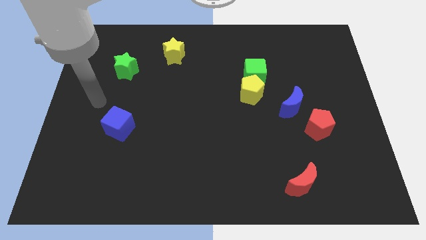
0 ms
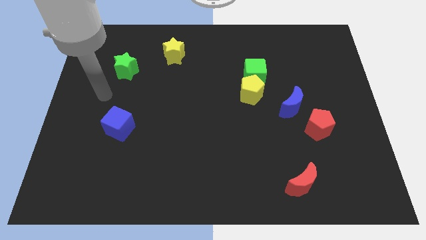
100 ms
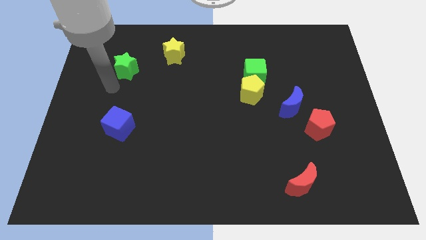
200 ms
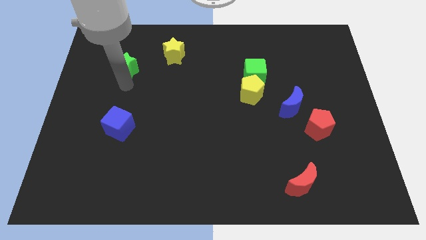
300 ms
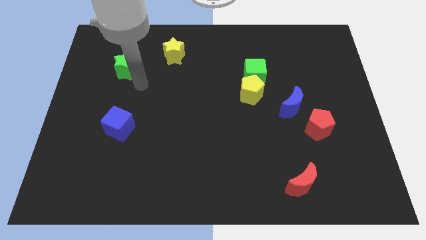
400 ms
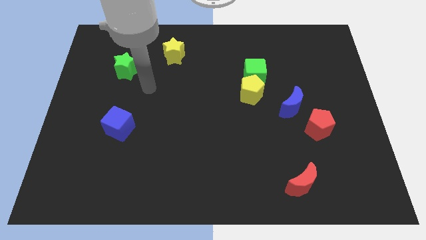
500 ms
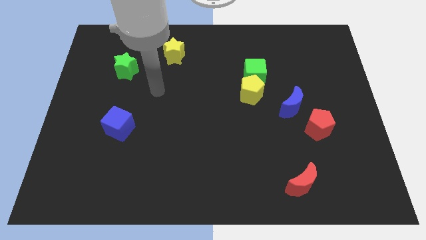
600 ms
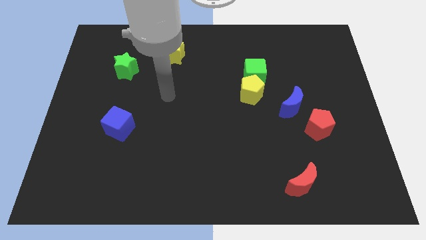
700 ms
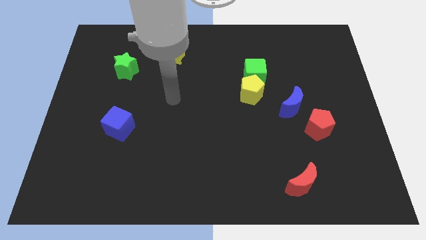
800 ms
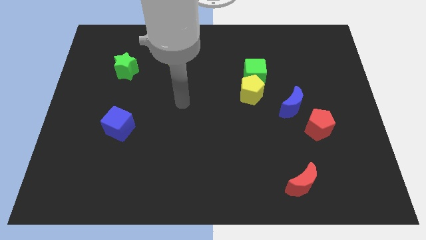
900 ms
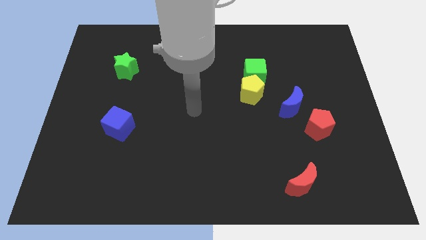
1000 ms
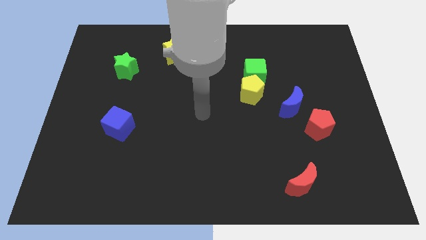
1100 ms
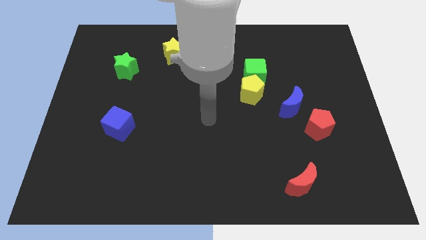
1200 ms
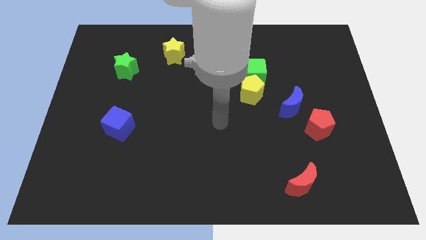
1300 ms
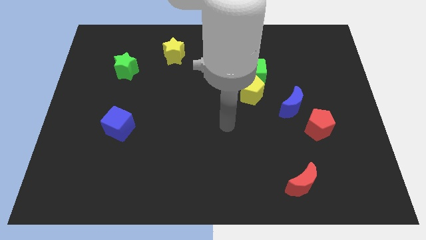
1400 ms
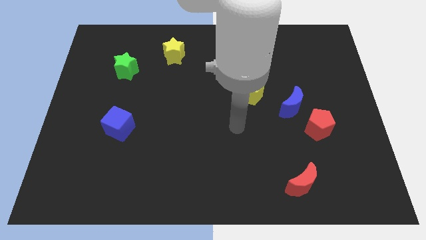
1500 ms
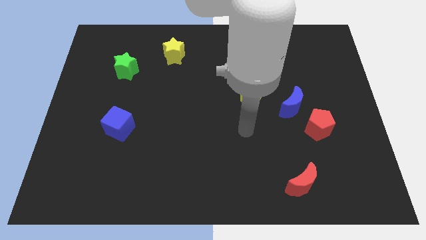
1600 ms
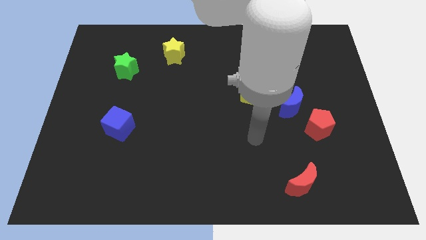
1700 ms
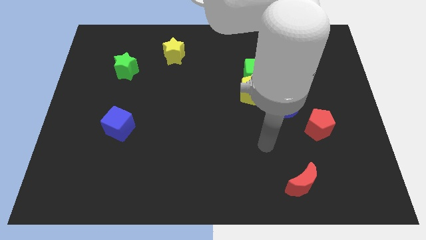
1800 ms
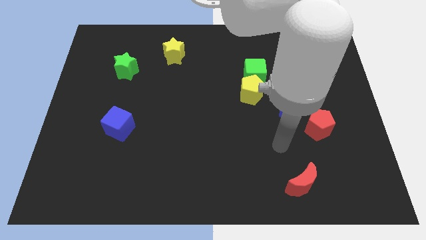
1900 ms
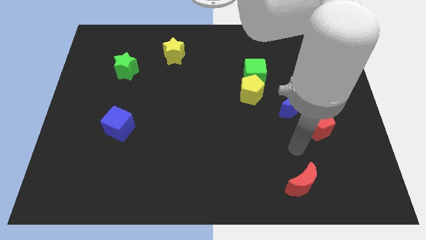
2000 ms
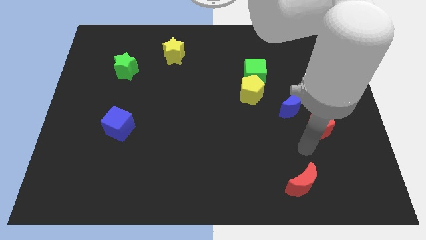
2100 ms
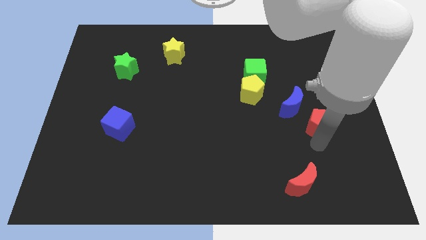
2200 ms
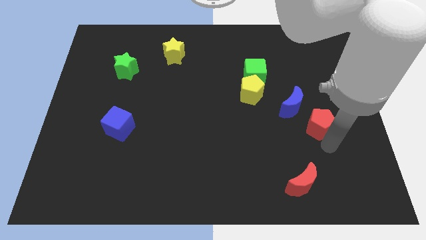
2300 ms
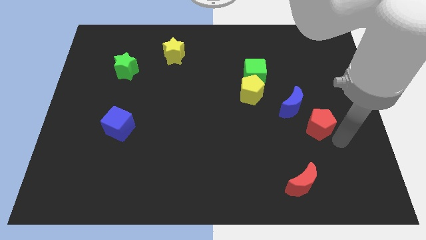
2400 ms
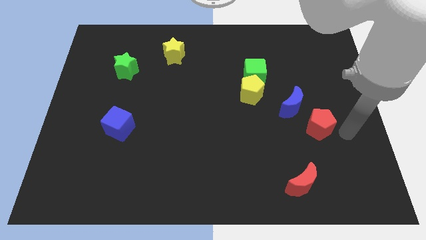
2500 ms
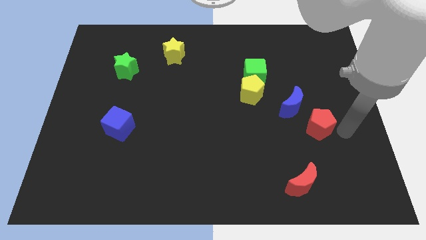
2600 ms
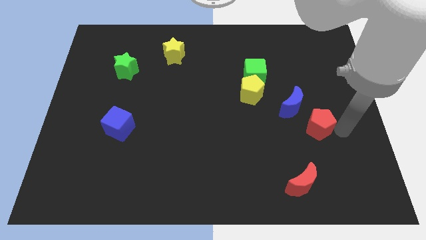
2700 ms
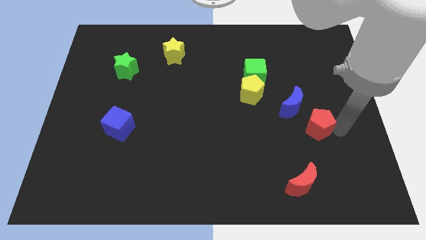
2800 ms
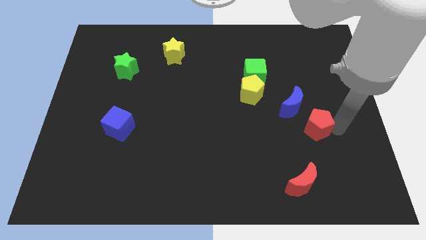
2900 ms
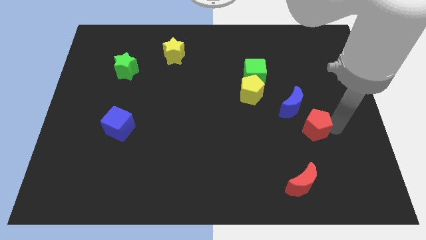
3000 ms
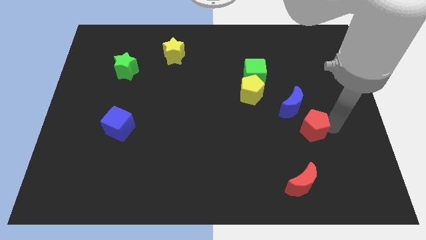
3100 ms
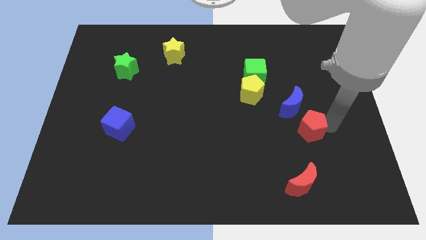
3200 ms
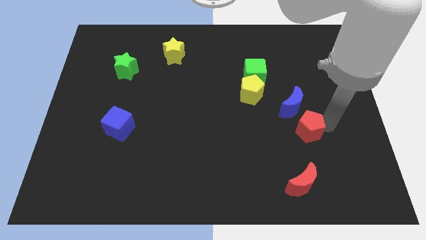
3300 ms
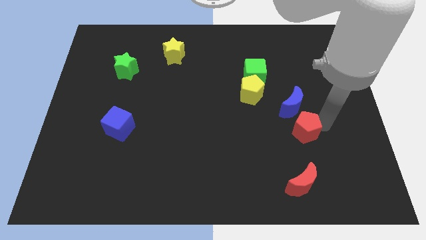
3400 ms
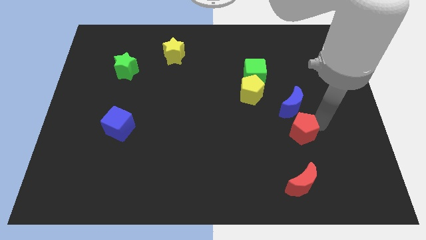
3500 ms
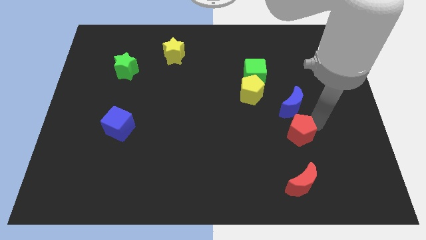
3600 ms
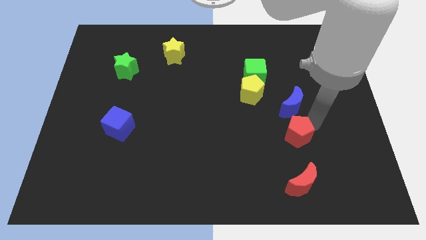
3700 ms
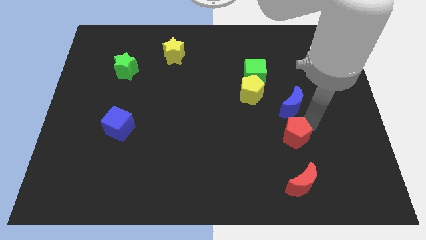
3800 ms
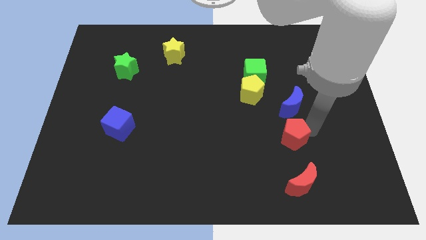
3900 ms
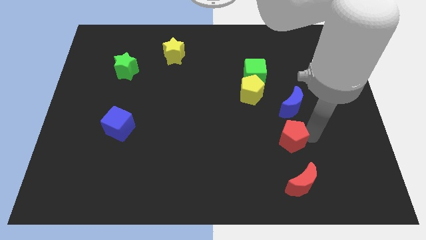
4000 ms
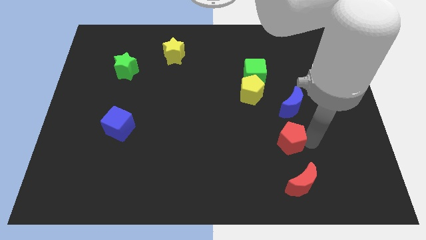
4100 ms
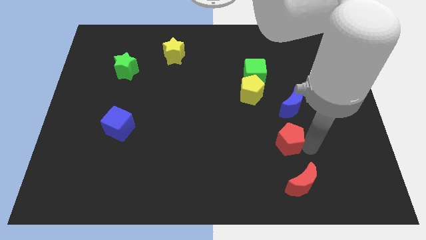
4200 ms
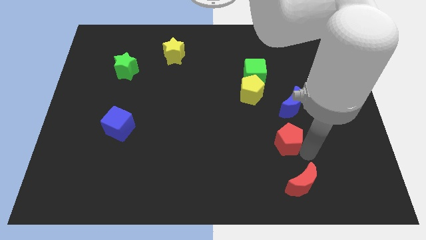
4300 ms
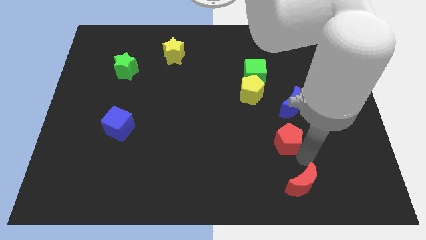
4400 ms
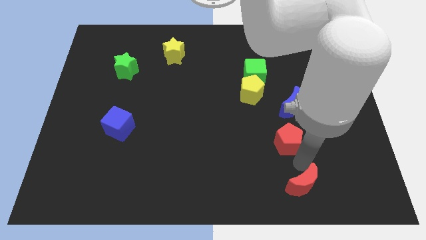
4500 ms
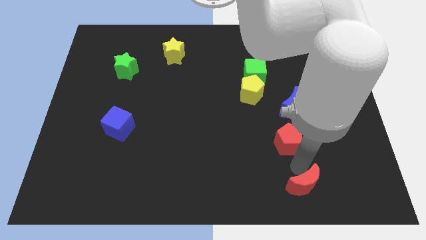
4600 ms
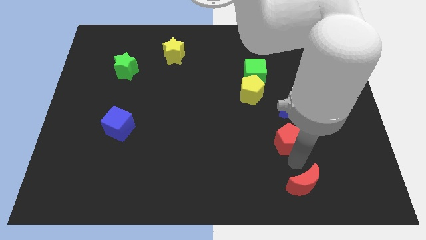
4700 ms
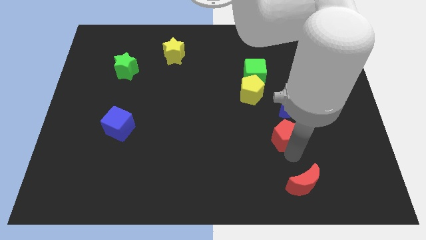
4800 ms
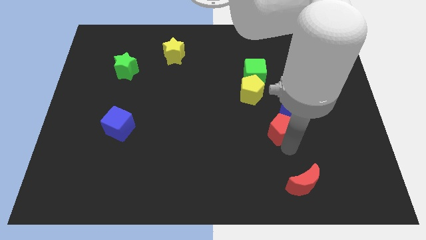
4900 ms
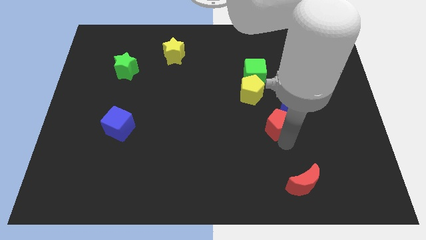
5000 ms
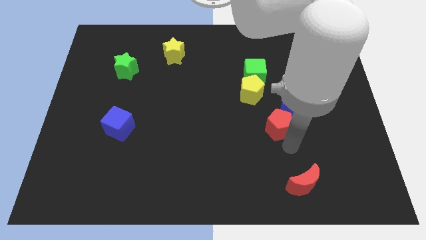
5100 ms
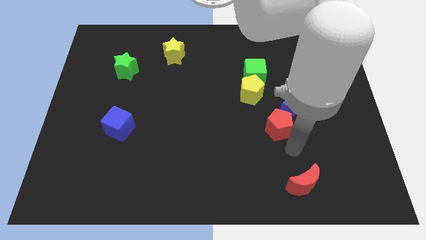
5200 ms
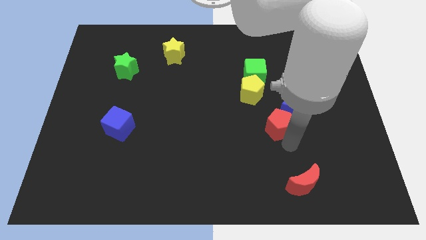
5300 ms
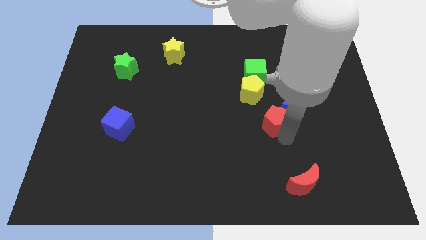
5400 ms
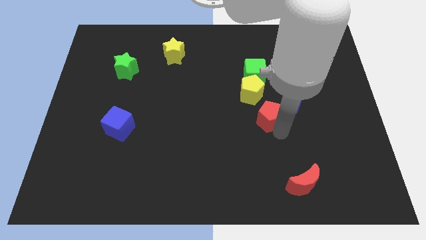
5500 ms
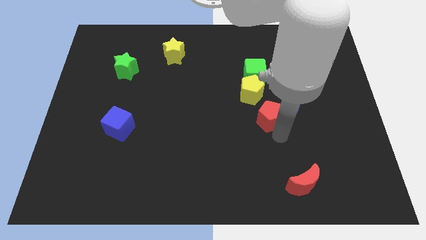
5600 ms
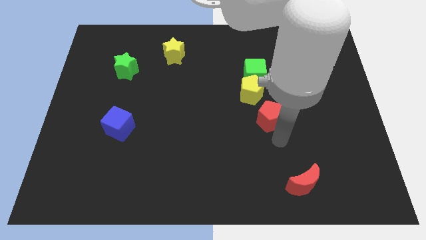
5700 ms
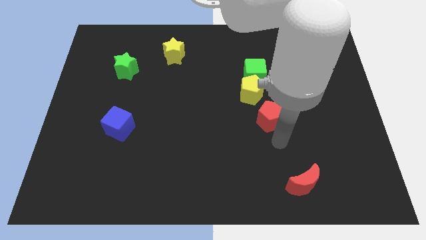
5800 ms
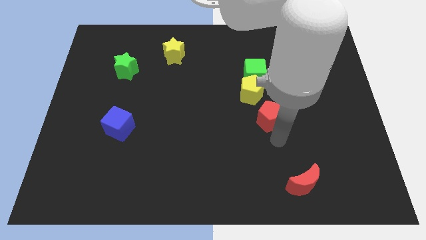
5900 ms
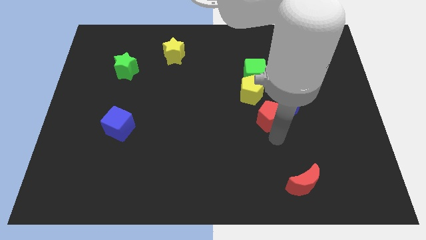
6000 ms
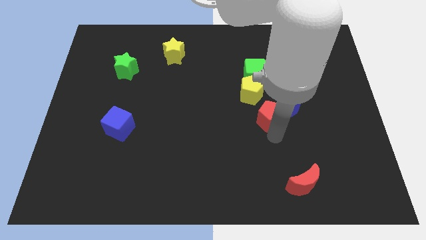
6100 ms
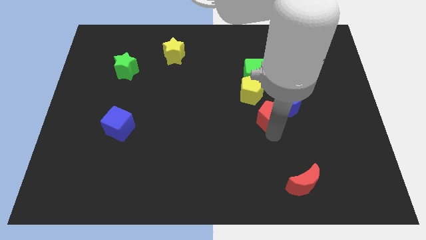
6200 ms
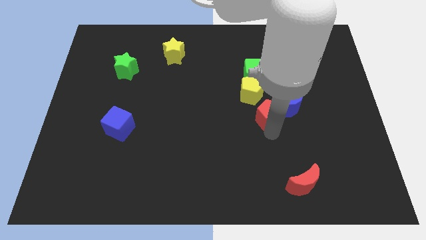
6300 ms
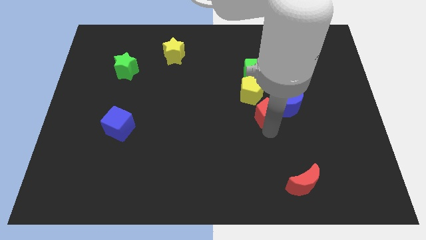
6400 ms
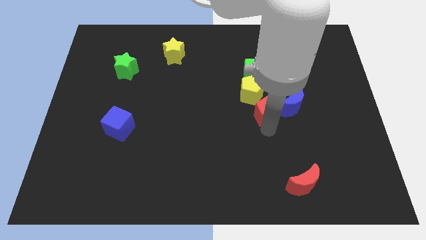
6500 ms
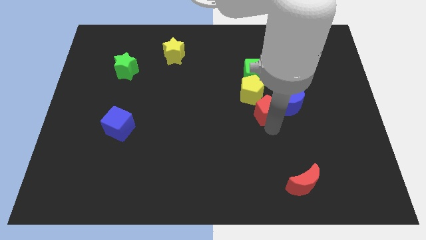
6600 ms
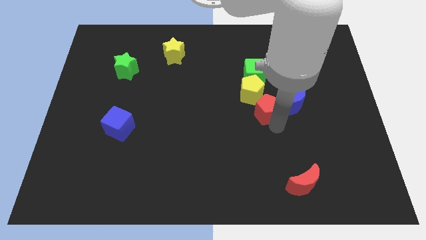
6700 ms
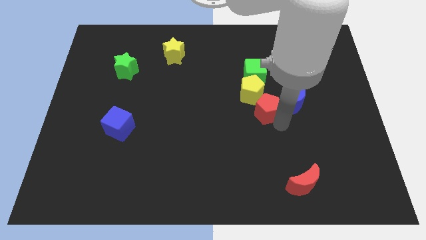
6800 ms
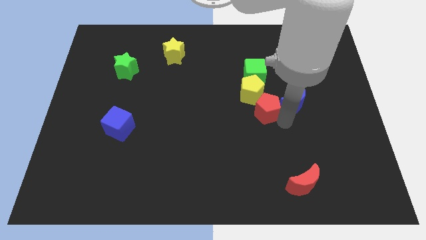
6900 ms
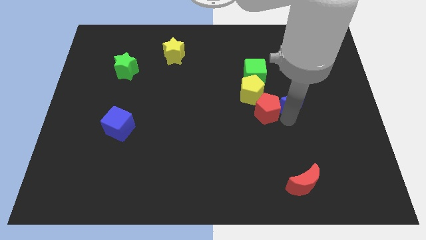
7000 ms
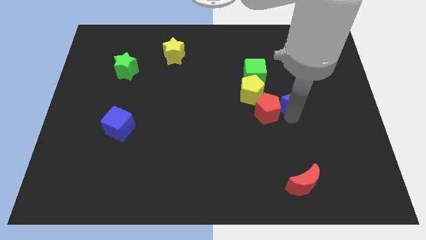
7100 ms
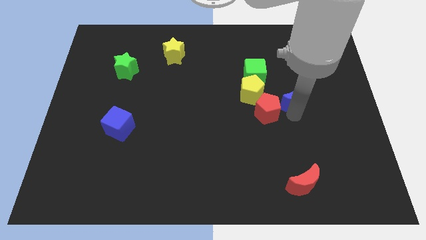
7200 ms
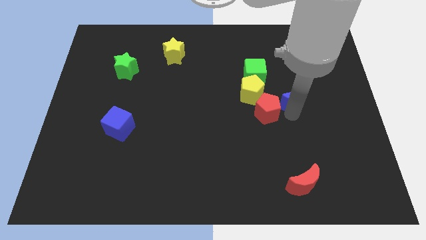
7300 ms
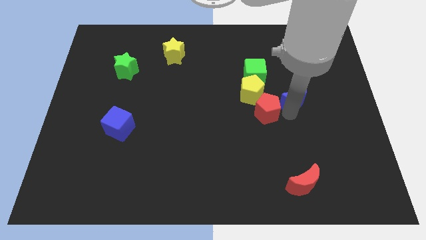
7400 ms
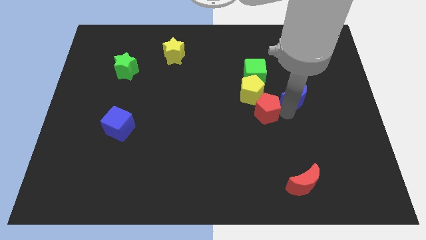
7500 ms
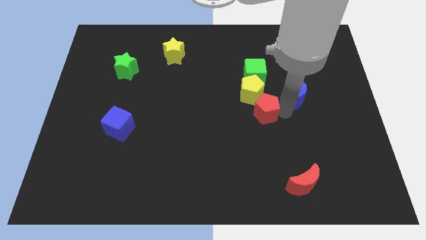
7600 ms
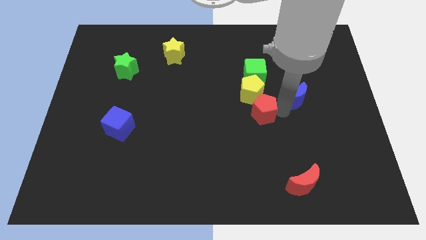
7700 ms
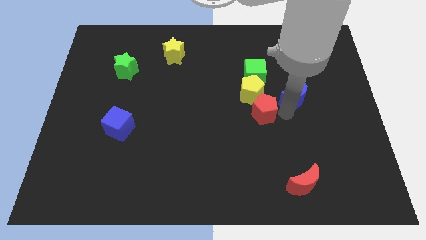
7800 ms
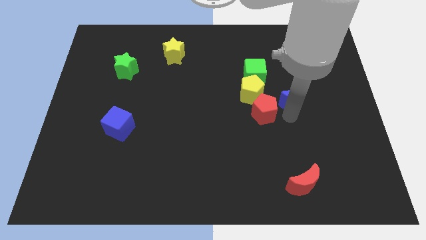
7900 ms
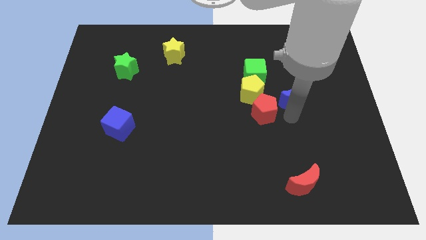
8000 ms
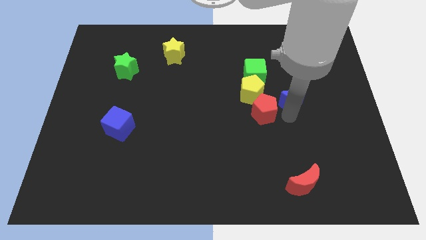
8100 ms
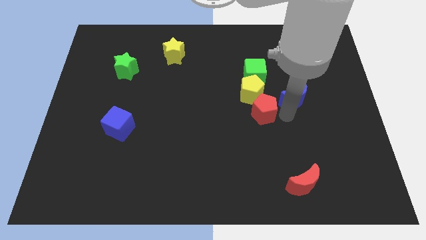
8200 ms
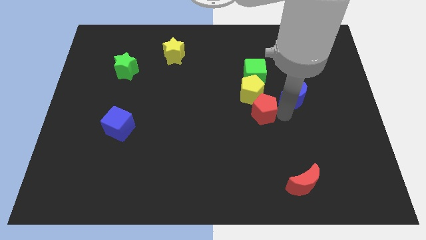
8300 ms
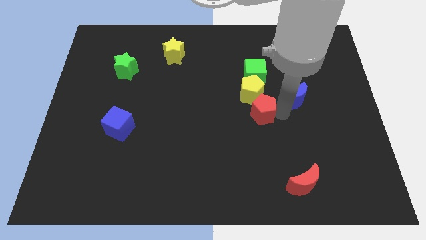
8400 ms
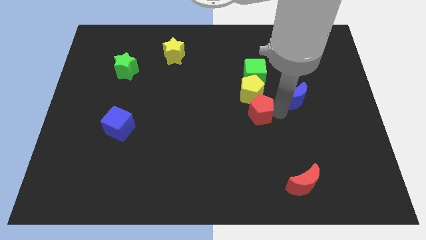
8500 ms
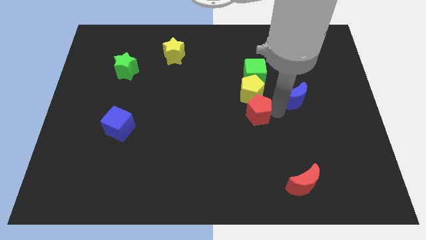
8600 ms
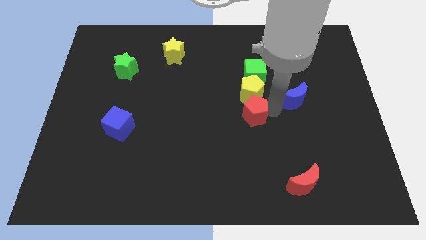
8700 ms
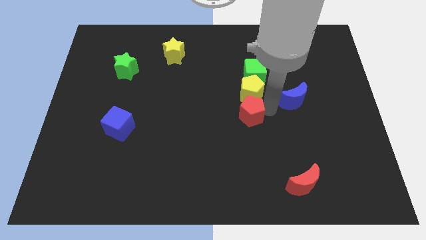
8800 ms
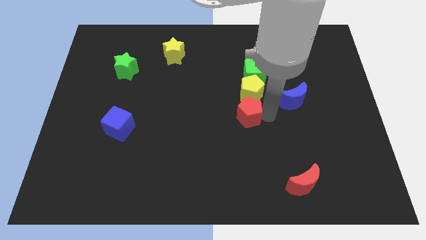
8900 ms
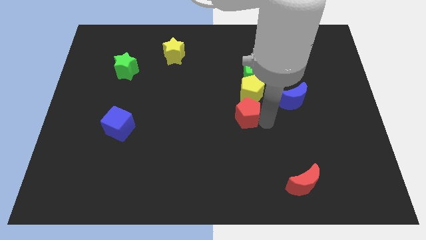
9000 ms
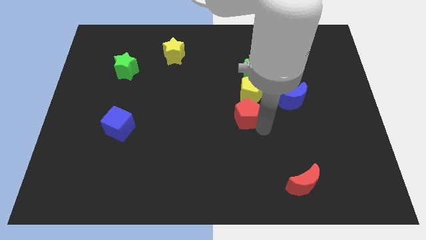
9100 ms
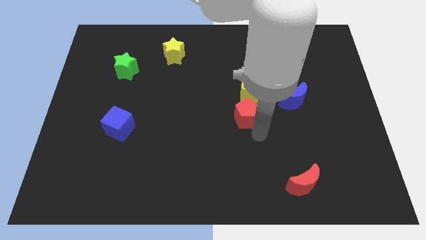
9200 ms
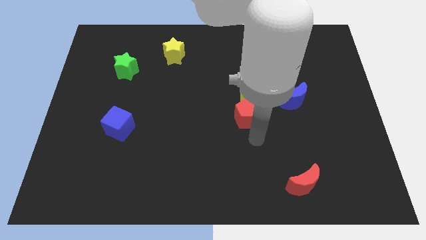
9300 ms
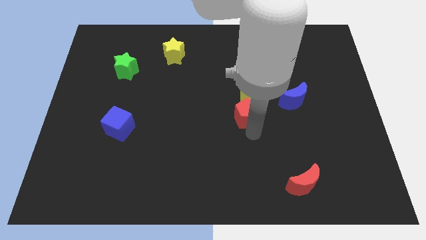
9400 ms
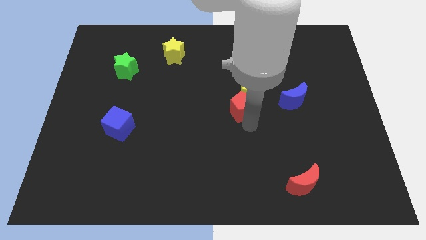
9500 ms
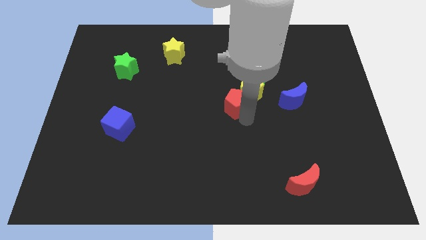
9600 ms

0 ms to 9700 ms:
slide the red pentagon diagonally down and to the left of the green cube
